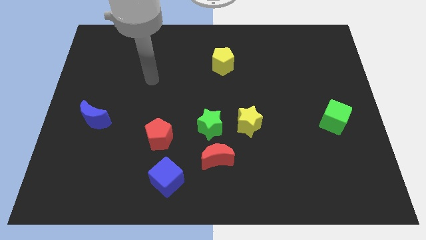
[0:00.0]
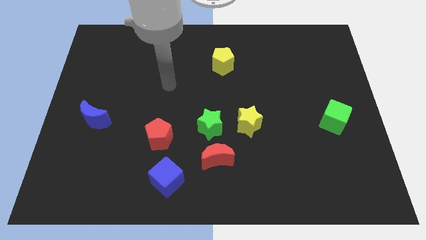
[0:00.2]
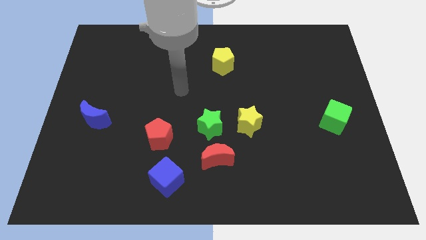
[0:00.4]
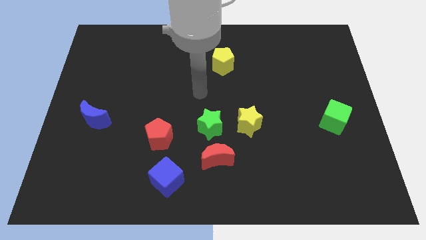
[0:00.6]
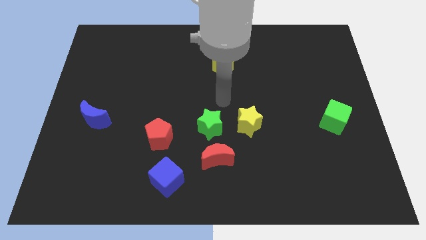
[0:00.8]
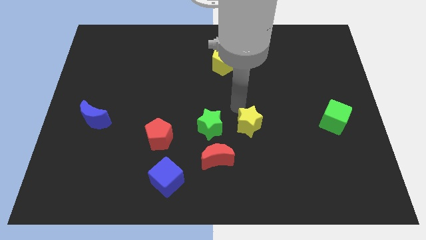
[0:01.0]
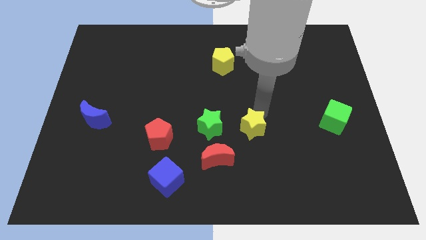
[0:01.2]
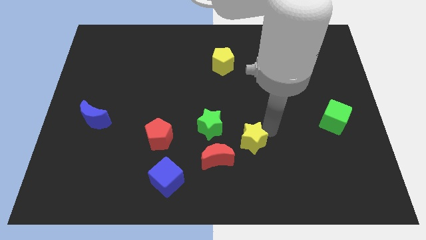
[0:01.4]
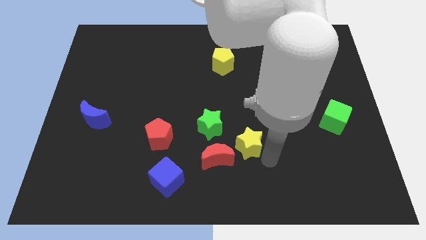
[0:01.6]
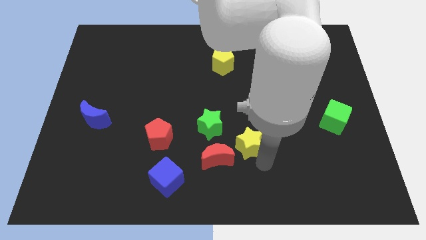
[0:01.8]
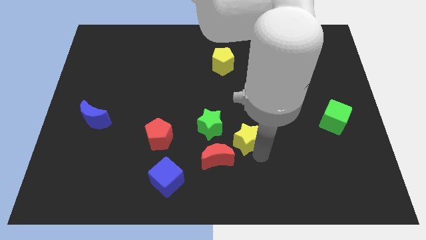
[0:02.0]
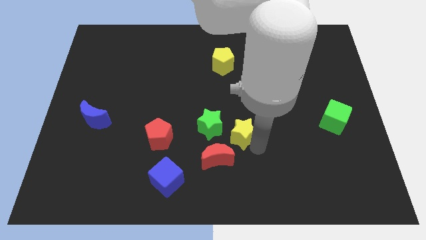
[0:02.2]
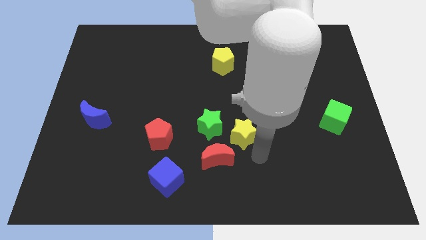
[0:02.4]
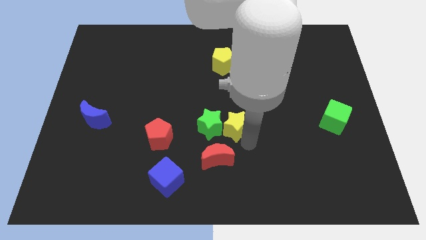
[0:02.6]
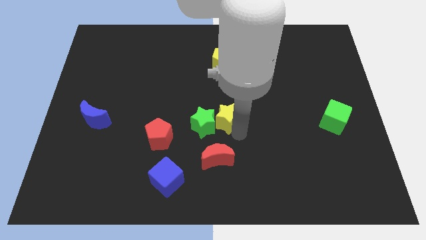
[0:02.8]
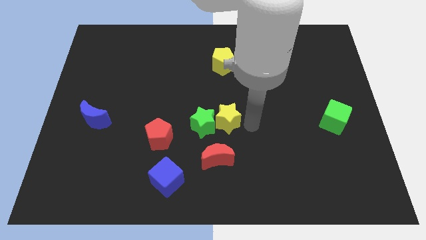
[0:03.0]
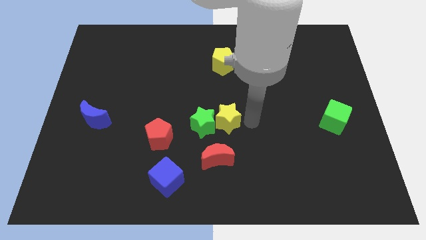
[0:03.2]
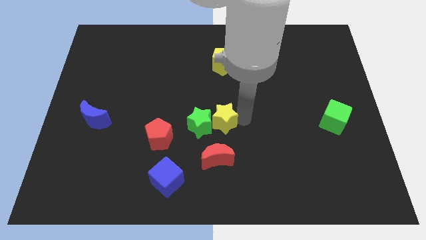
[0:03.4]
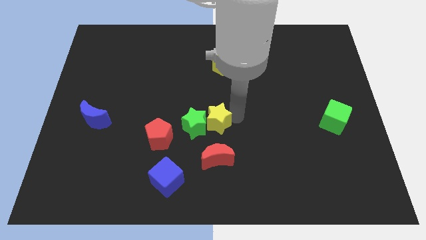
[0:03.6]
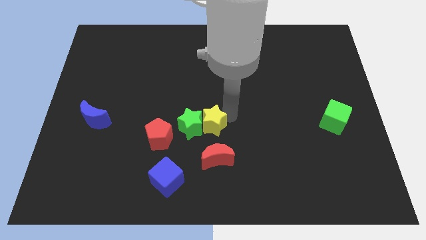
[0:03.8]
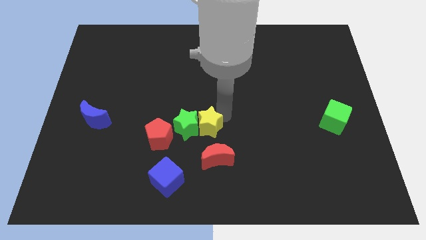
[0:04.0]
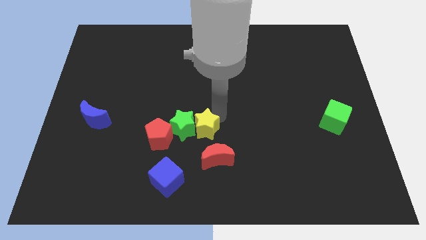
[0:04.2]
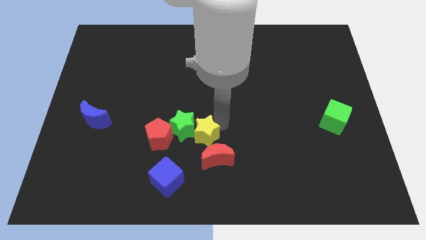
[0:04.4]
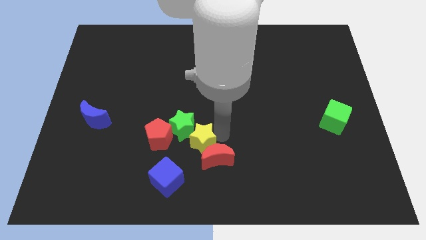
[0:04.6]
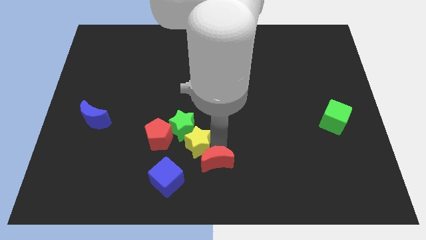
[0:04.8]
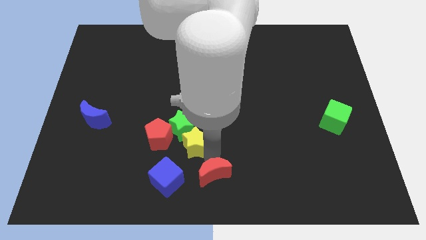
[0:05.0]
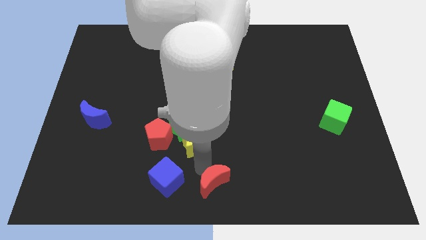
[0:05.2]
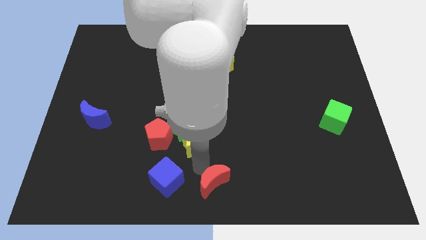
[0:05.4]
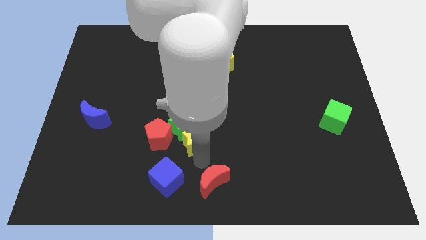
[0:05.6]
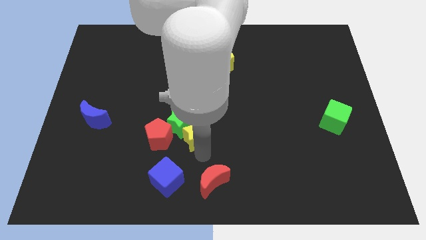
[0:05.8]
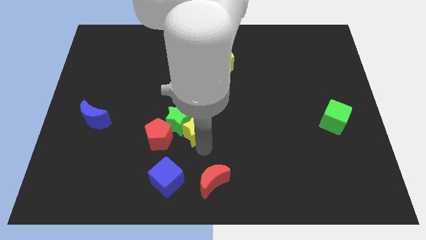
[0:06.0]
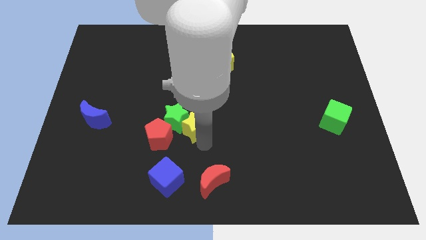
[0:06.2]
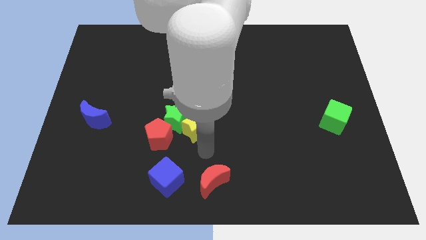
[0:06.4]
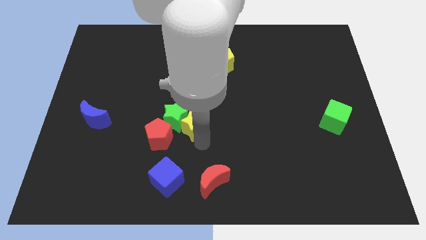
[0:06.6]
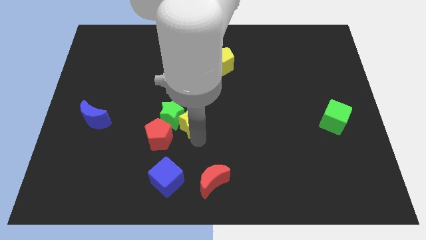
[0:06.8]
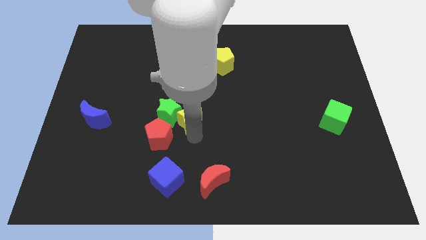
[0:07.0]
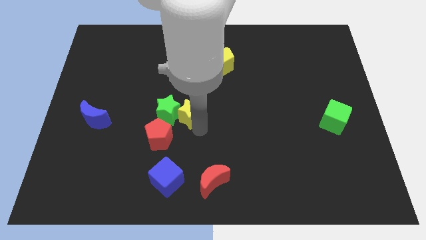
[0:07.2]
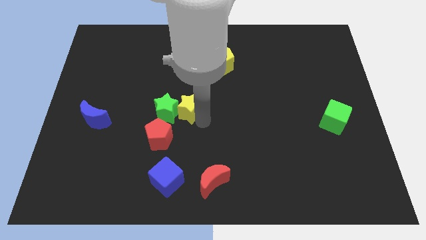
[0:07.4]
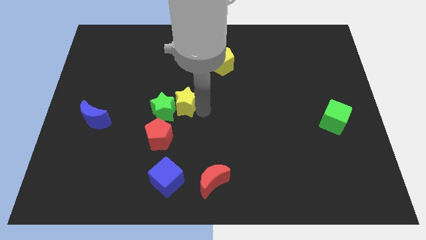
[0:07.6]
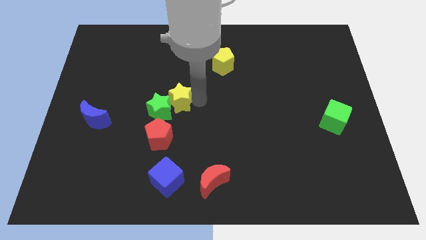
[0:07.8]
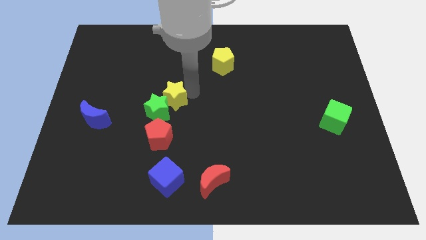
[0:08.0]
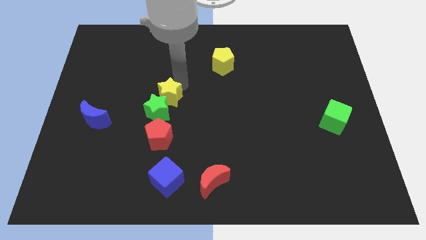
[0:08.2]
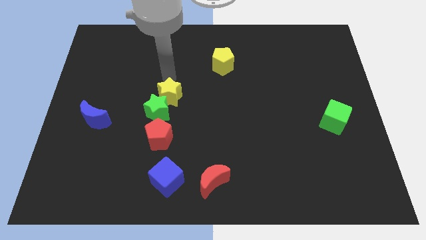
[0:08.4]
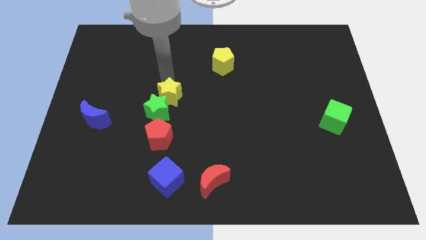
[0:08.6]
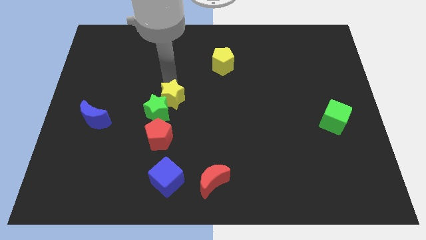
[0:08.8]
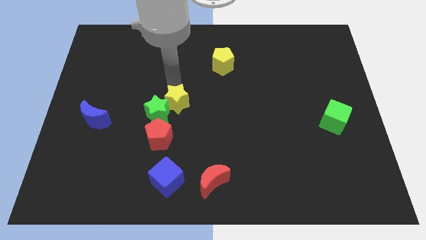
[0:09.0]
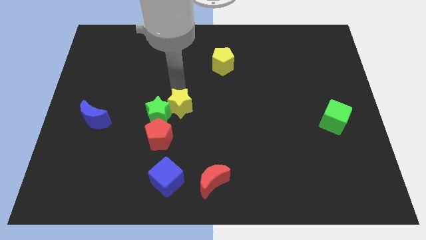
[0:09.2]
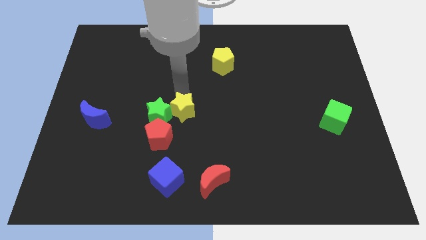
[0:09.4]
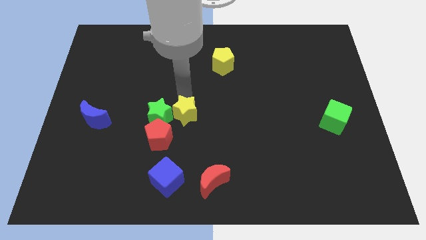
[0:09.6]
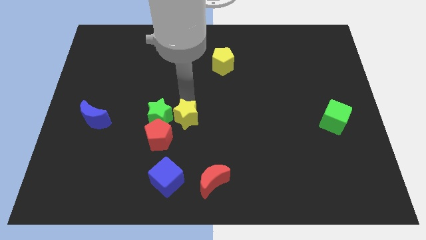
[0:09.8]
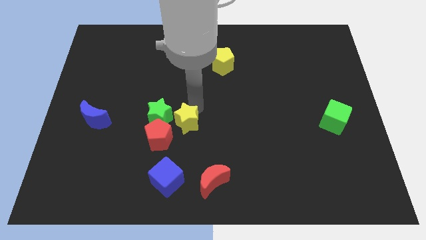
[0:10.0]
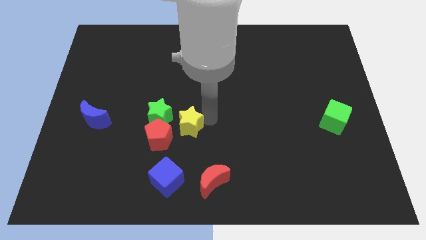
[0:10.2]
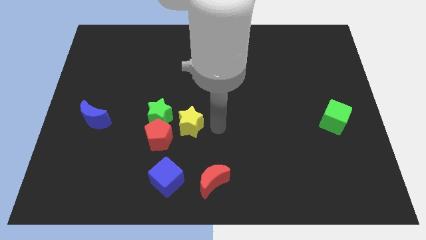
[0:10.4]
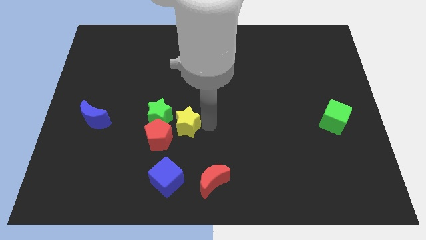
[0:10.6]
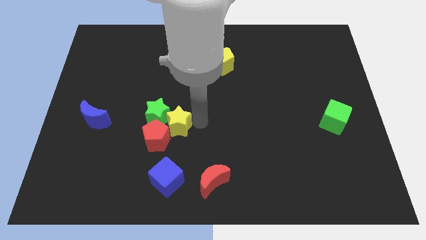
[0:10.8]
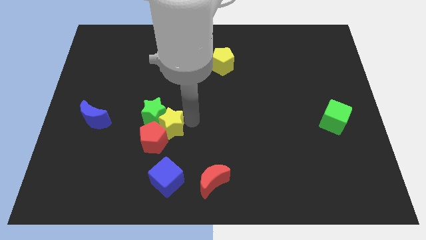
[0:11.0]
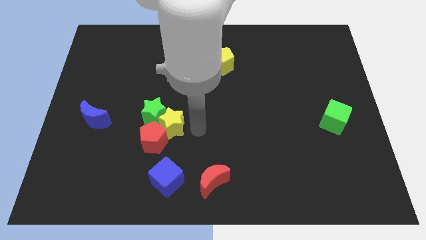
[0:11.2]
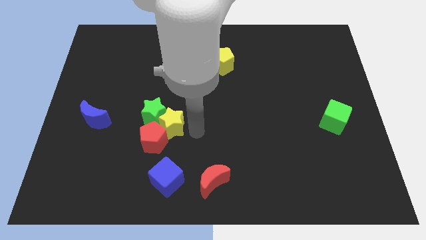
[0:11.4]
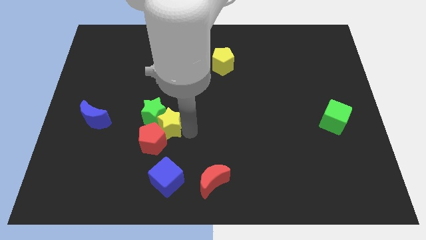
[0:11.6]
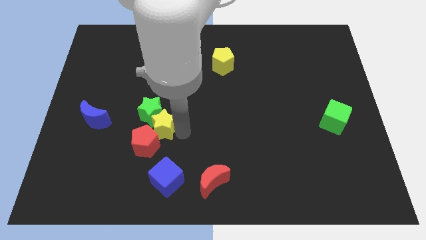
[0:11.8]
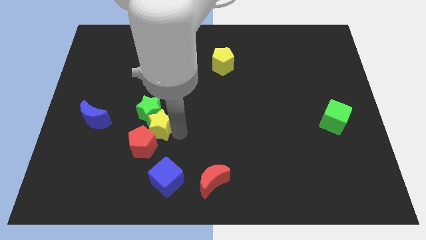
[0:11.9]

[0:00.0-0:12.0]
push the yellow star right of the blue moon

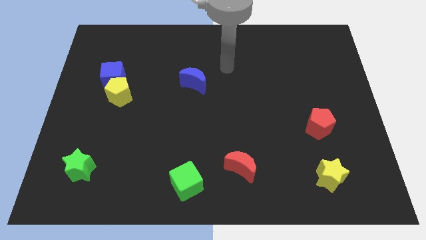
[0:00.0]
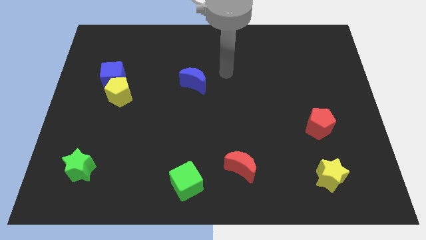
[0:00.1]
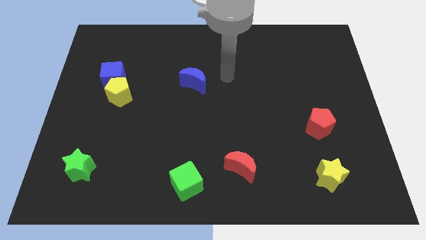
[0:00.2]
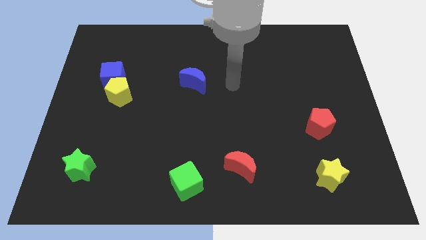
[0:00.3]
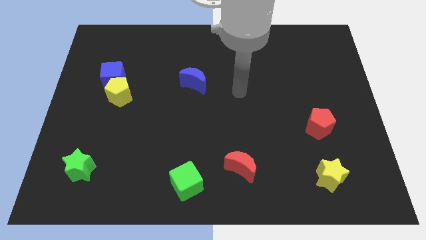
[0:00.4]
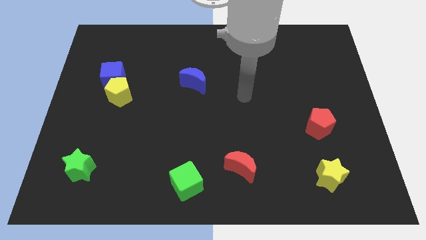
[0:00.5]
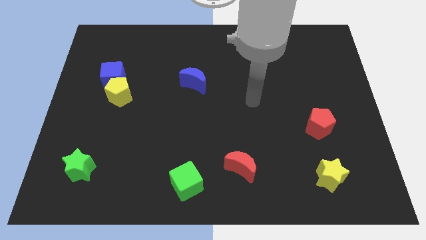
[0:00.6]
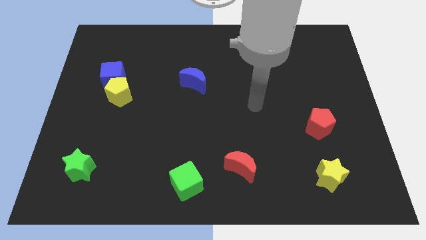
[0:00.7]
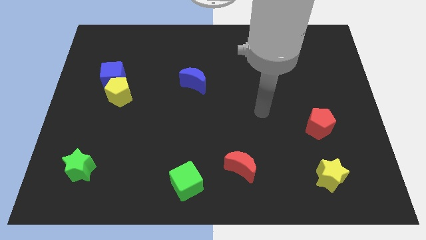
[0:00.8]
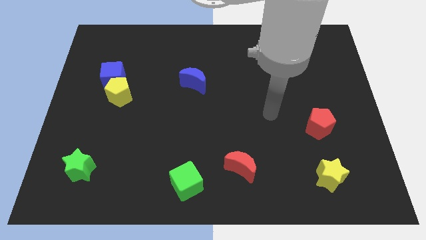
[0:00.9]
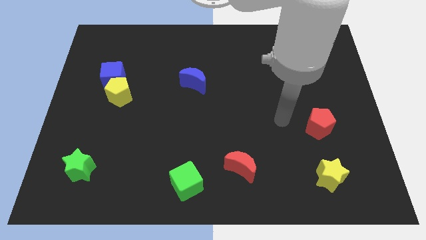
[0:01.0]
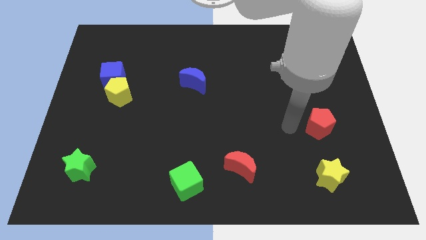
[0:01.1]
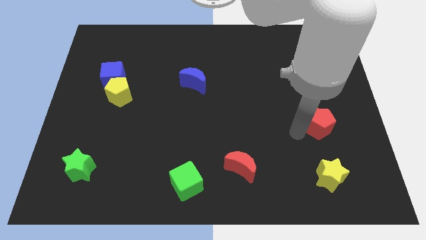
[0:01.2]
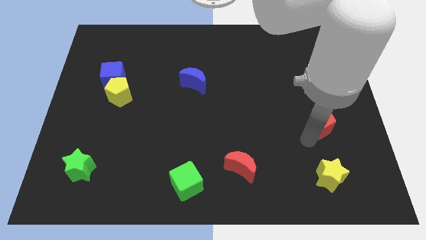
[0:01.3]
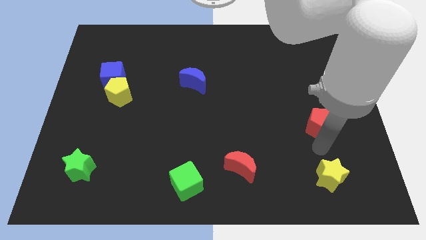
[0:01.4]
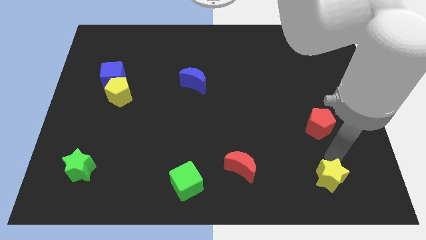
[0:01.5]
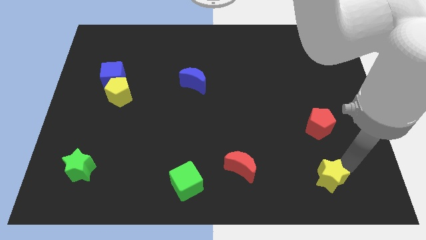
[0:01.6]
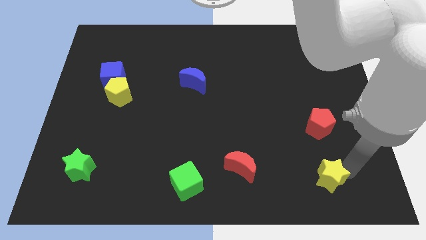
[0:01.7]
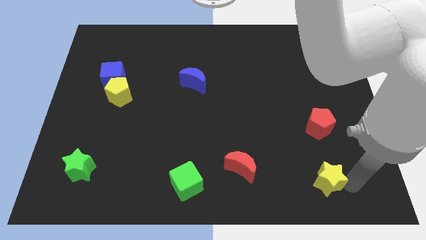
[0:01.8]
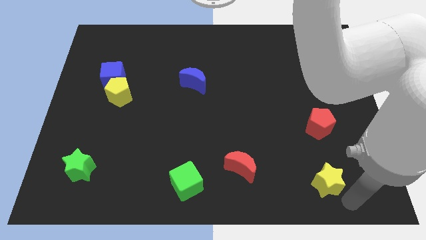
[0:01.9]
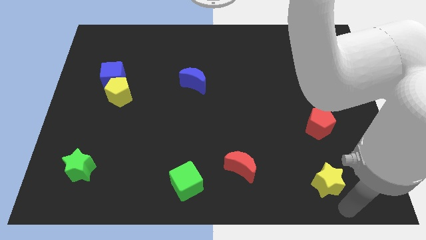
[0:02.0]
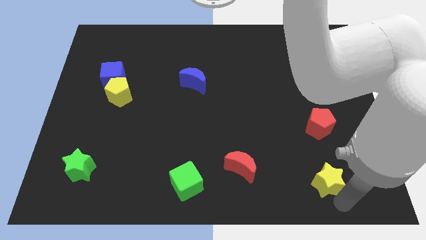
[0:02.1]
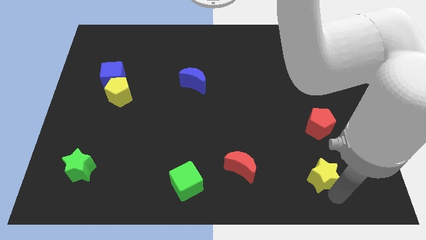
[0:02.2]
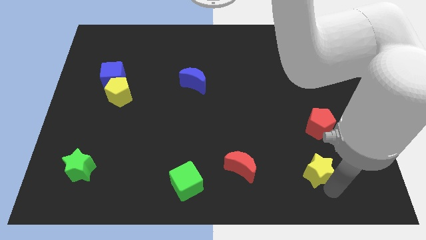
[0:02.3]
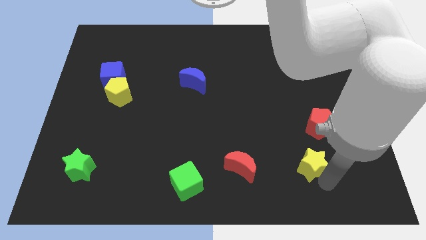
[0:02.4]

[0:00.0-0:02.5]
move the yellow star diagonally down and to the left of the red pentagon
